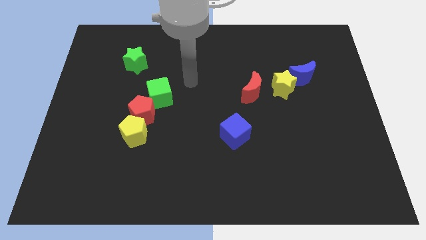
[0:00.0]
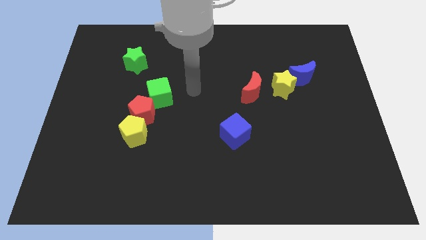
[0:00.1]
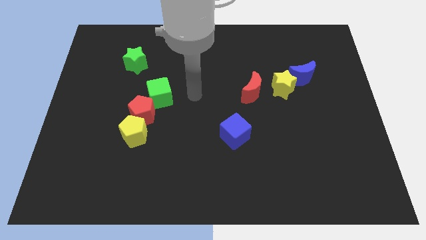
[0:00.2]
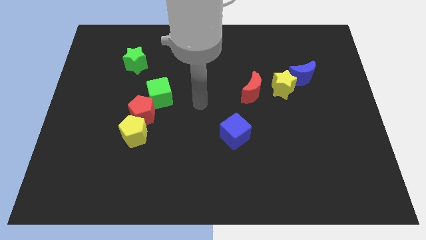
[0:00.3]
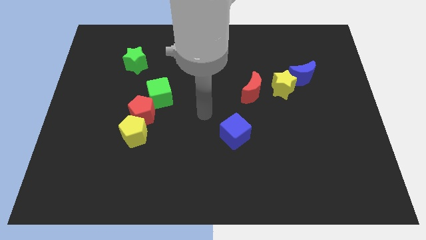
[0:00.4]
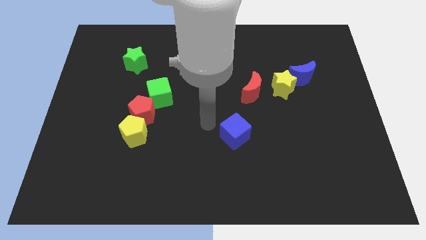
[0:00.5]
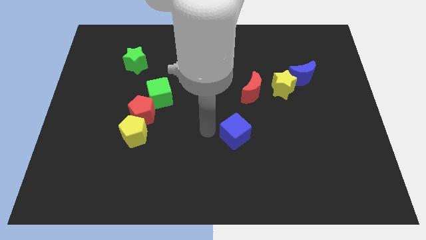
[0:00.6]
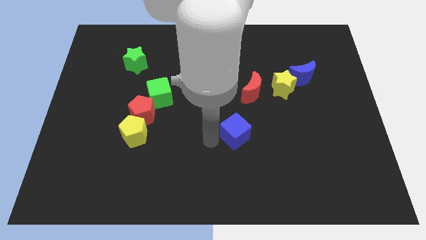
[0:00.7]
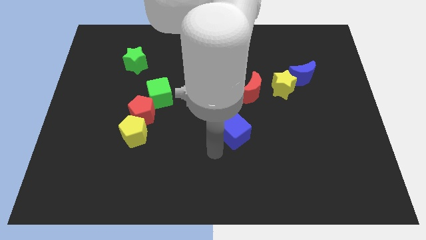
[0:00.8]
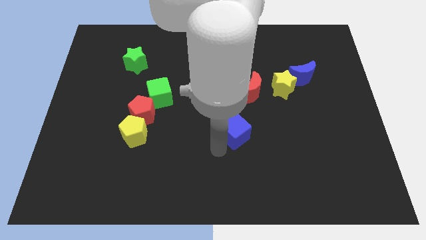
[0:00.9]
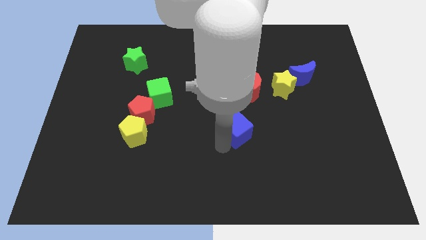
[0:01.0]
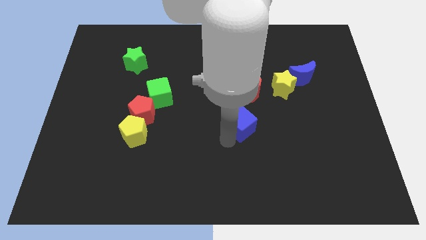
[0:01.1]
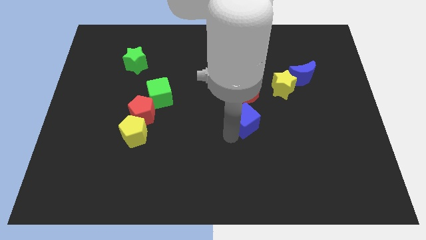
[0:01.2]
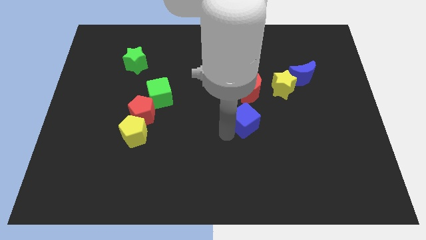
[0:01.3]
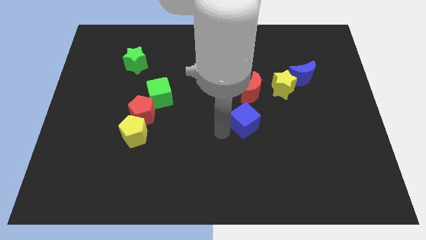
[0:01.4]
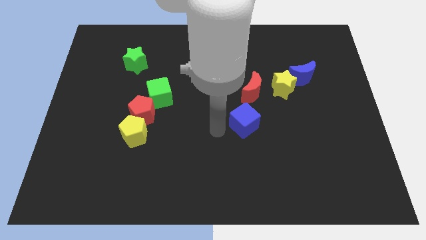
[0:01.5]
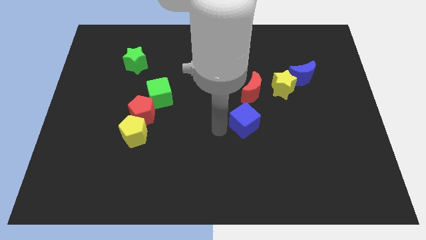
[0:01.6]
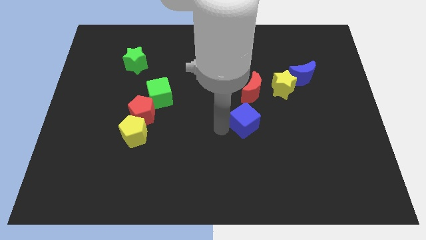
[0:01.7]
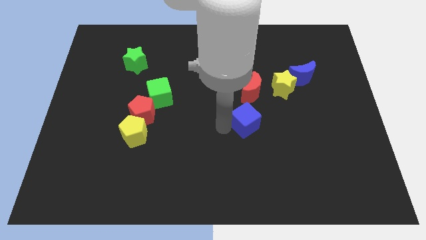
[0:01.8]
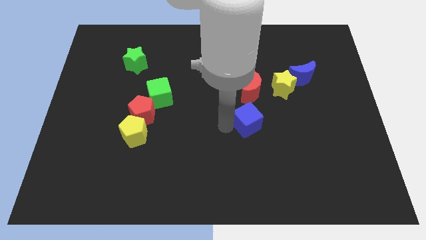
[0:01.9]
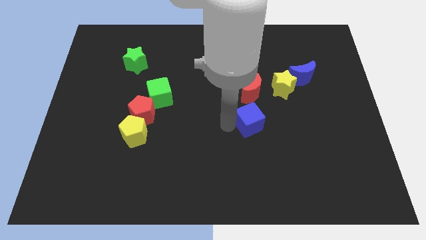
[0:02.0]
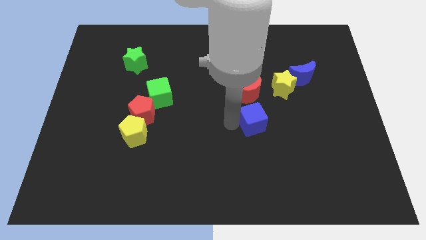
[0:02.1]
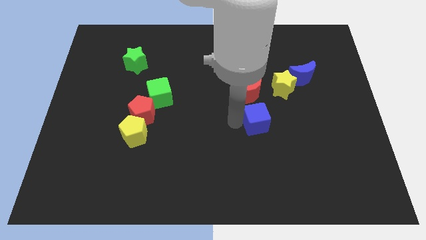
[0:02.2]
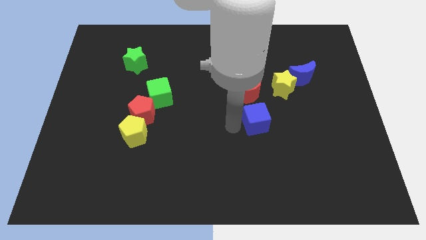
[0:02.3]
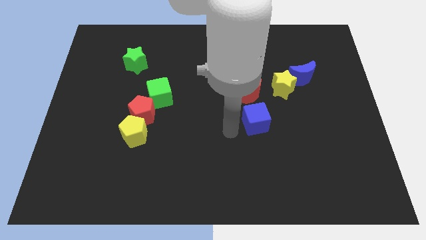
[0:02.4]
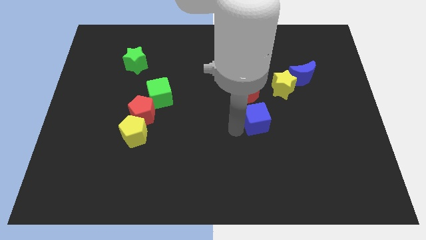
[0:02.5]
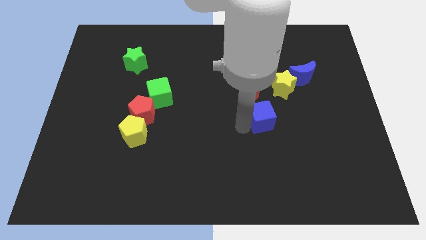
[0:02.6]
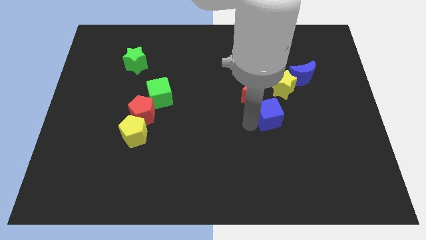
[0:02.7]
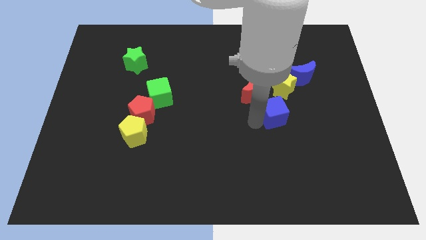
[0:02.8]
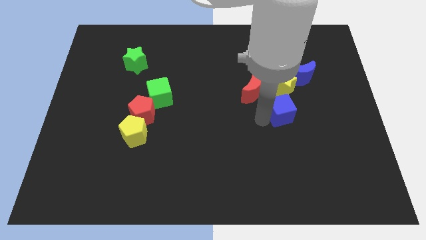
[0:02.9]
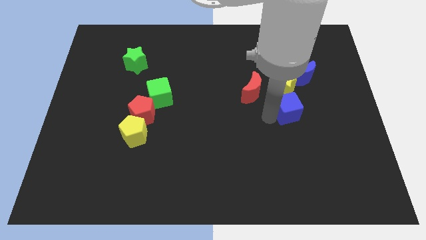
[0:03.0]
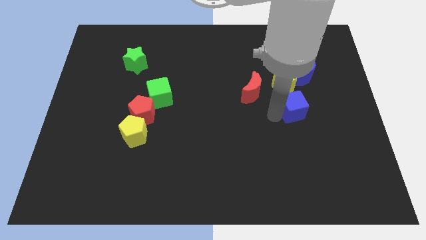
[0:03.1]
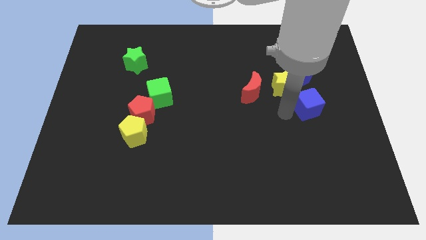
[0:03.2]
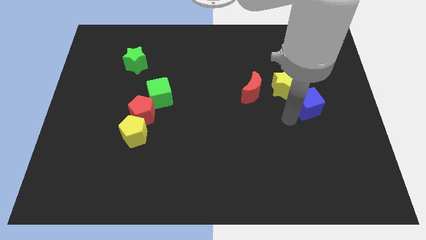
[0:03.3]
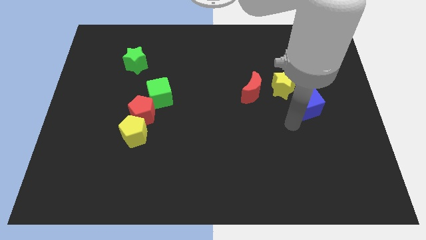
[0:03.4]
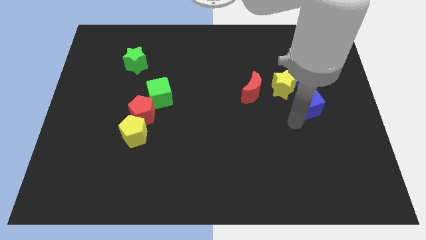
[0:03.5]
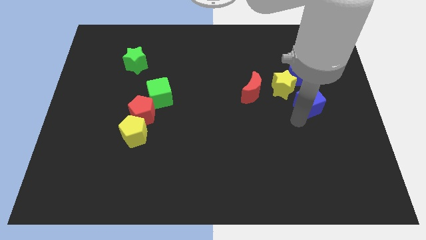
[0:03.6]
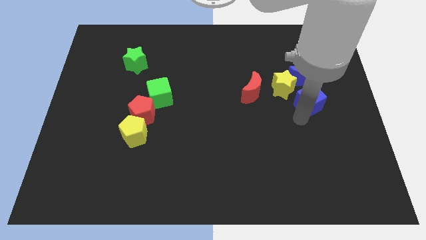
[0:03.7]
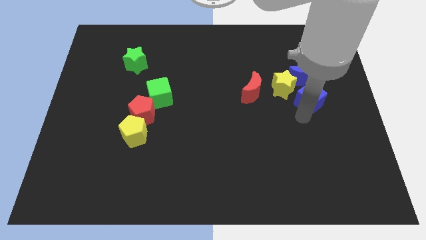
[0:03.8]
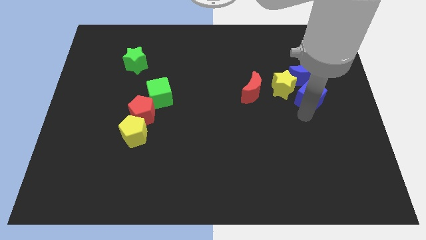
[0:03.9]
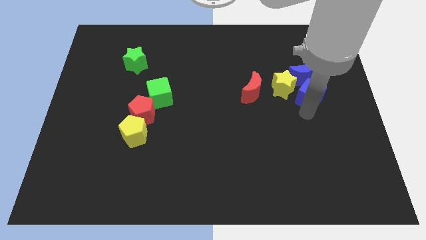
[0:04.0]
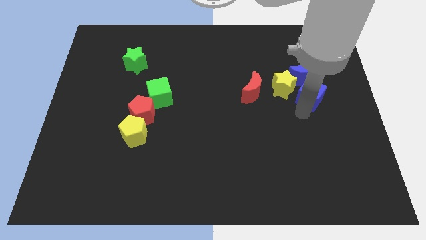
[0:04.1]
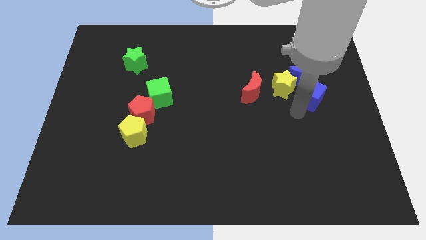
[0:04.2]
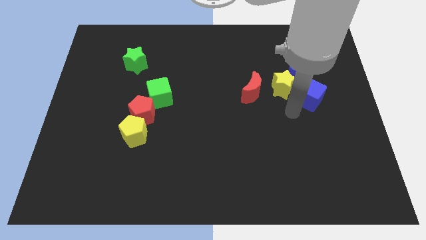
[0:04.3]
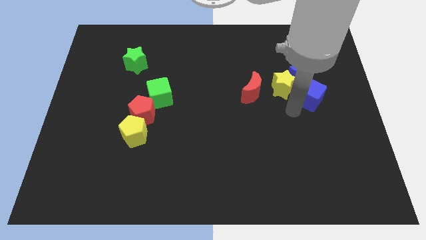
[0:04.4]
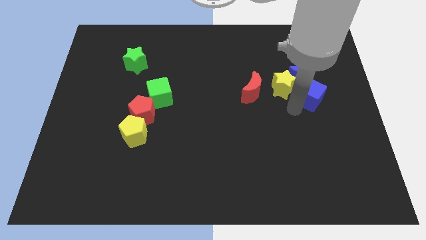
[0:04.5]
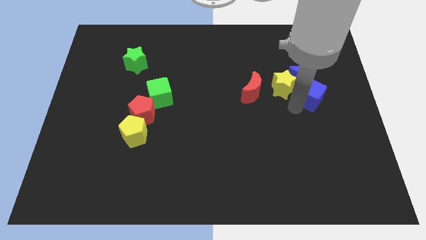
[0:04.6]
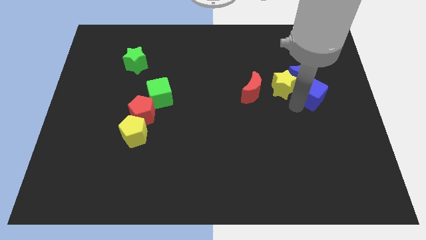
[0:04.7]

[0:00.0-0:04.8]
move the blue cube upwards and to the right diagonally

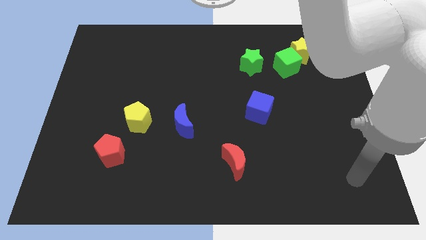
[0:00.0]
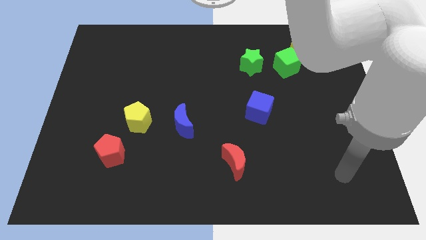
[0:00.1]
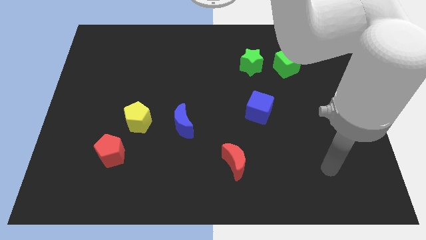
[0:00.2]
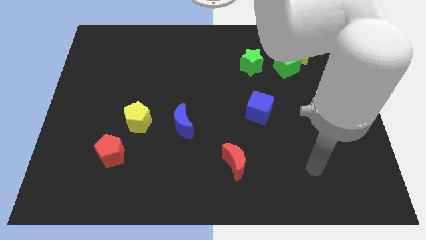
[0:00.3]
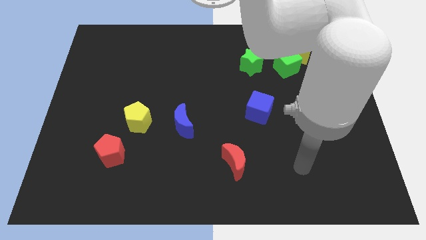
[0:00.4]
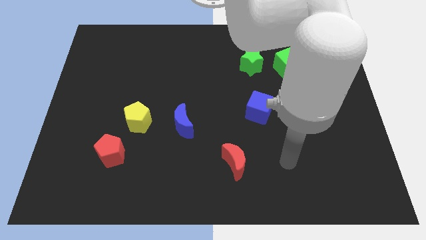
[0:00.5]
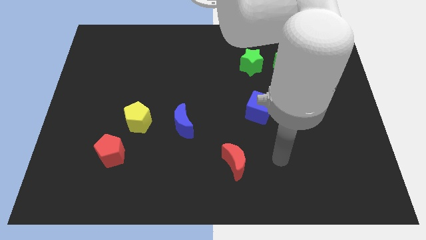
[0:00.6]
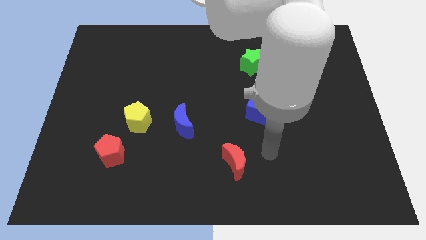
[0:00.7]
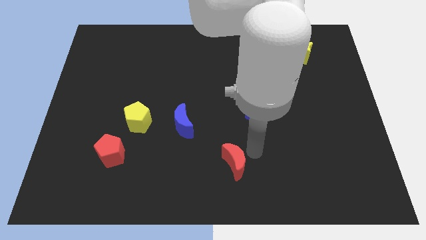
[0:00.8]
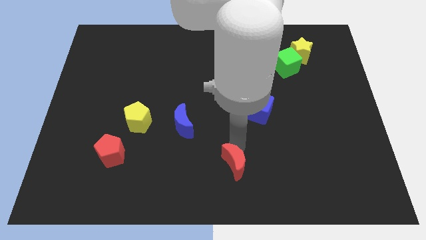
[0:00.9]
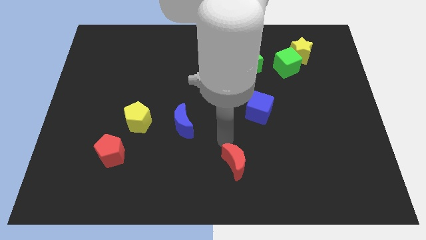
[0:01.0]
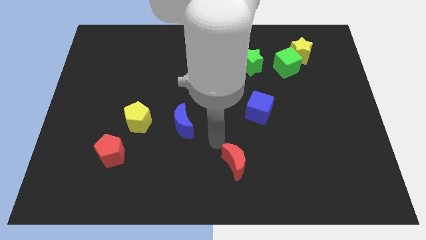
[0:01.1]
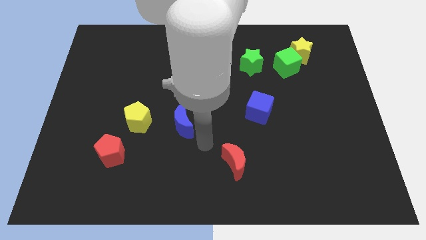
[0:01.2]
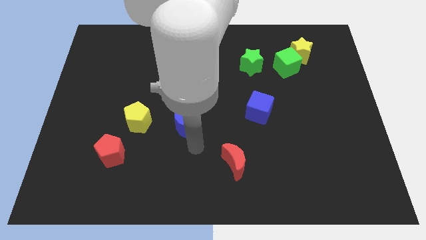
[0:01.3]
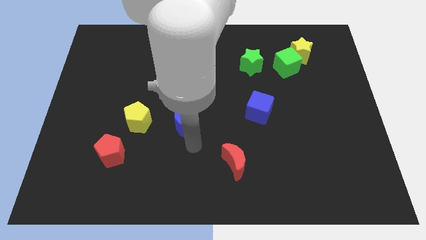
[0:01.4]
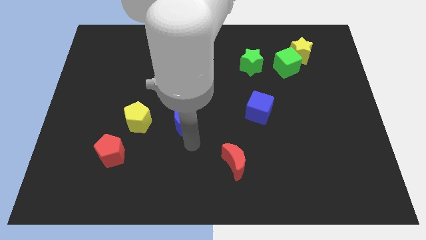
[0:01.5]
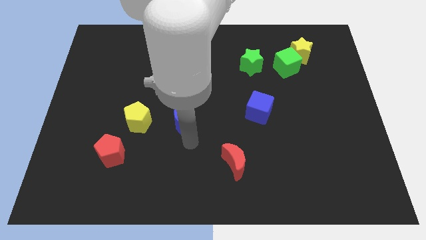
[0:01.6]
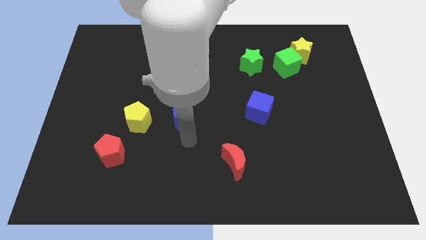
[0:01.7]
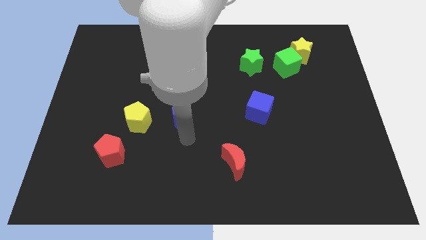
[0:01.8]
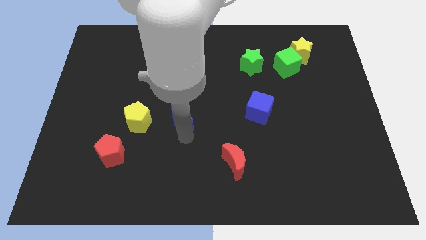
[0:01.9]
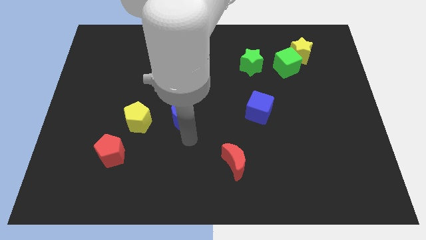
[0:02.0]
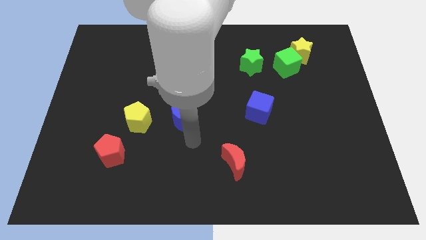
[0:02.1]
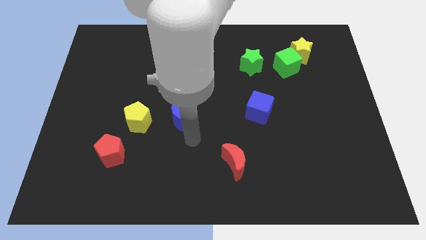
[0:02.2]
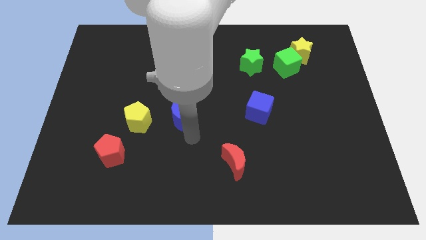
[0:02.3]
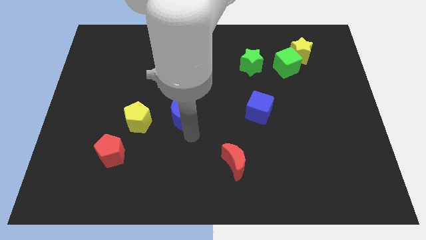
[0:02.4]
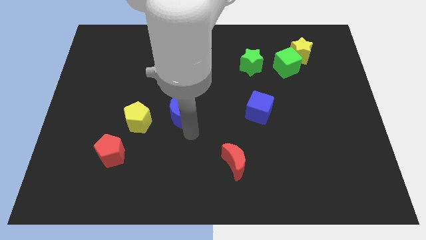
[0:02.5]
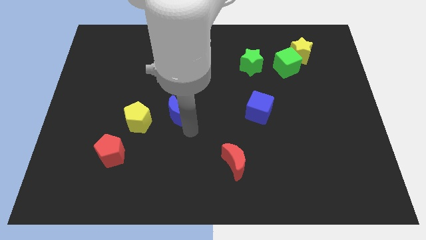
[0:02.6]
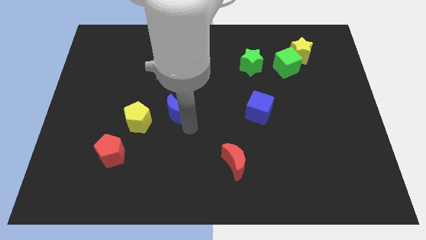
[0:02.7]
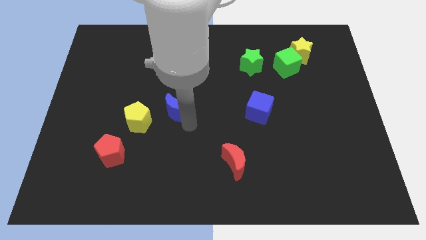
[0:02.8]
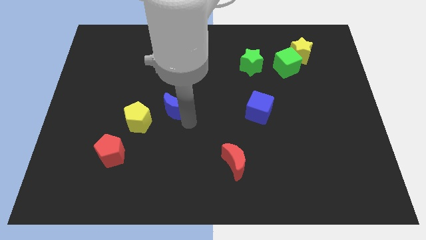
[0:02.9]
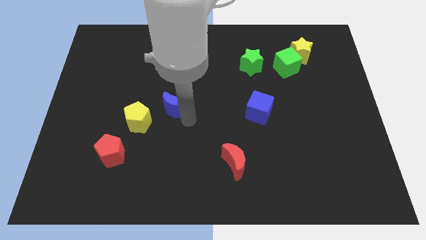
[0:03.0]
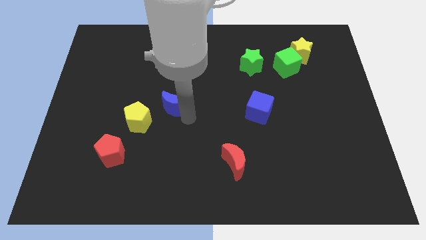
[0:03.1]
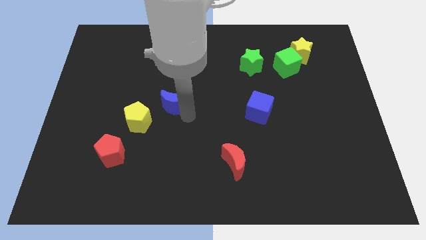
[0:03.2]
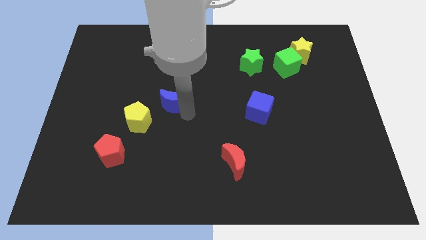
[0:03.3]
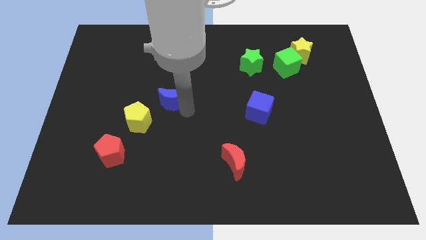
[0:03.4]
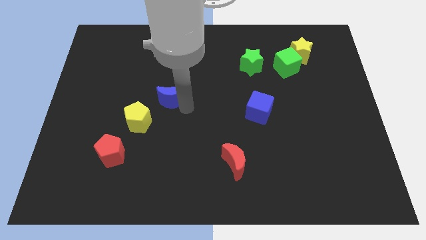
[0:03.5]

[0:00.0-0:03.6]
slightly push the blue moon up and then to the left
